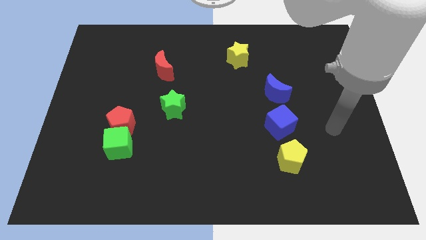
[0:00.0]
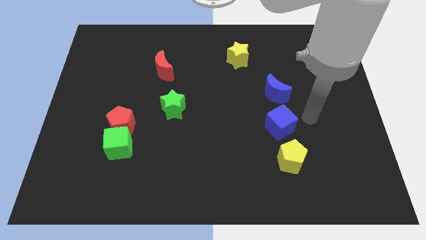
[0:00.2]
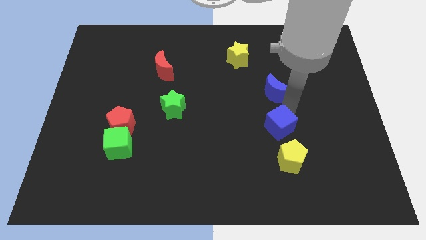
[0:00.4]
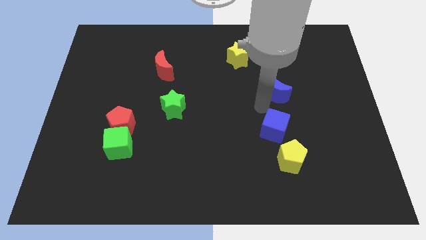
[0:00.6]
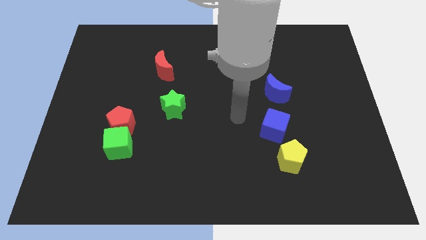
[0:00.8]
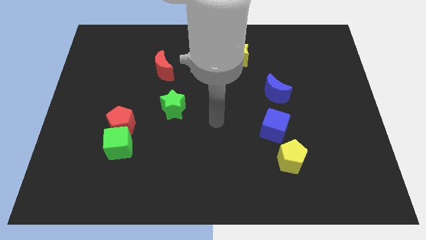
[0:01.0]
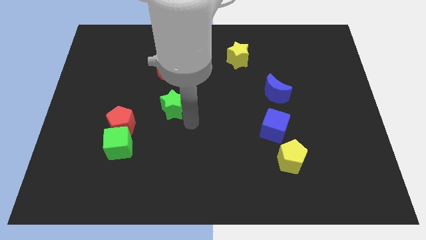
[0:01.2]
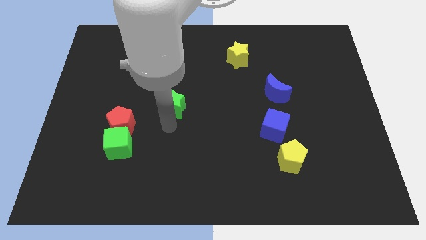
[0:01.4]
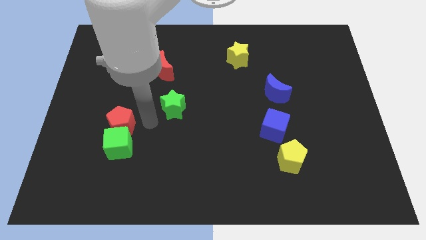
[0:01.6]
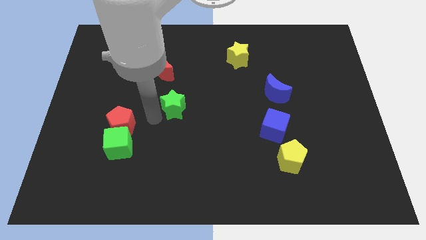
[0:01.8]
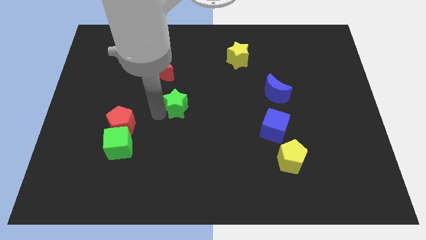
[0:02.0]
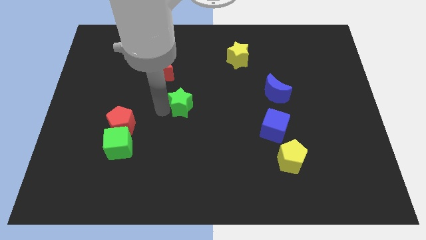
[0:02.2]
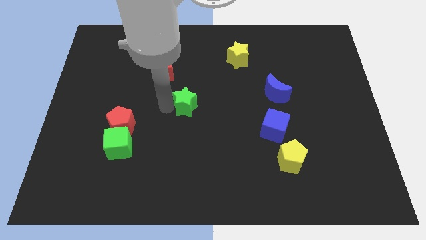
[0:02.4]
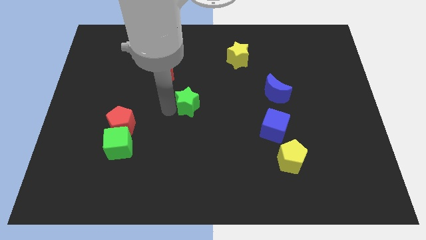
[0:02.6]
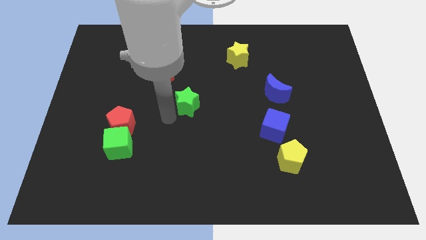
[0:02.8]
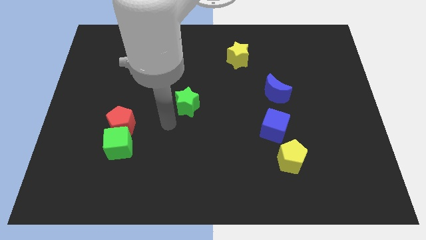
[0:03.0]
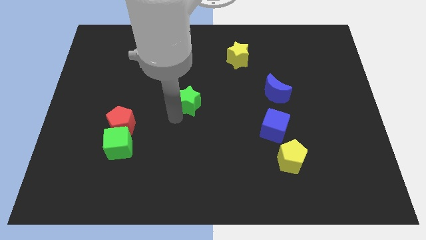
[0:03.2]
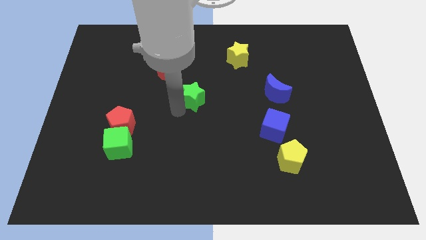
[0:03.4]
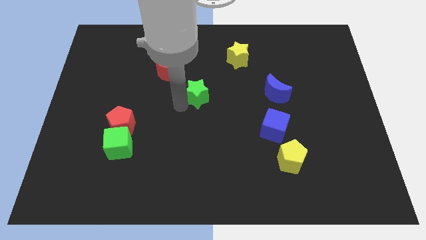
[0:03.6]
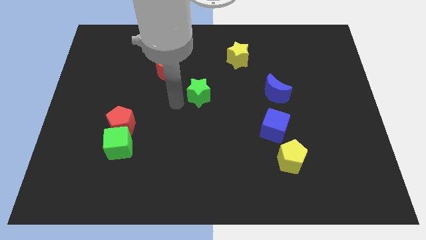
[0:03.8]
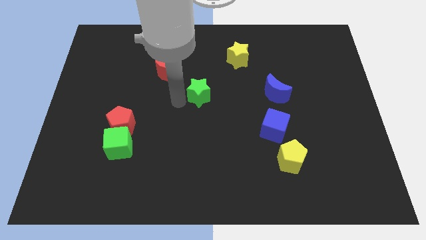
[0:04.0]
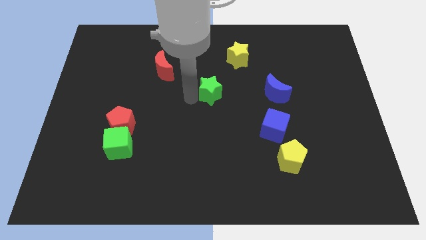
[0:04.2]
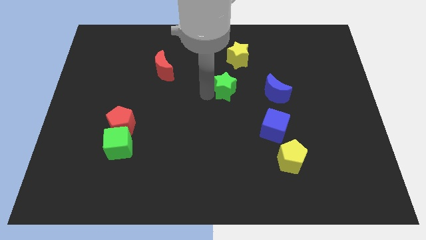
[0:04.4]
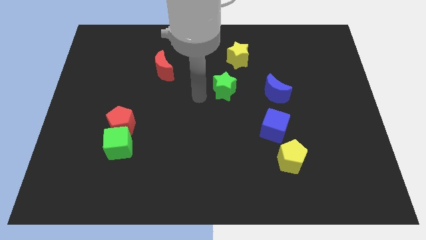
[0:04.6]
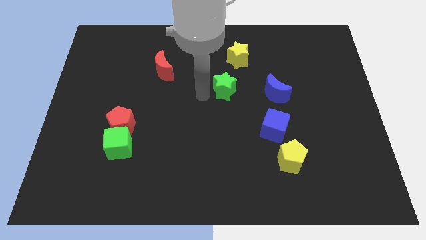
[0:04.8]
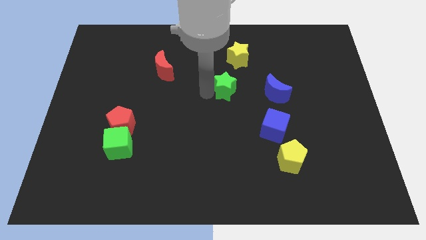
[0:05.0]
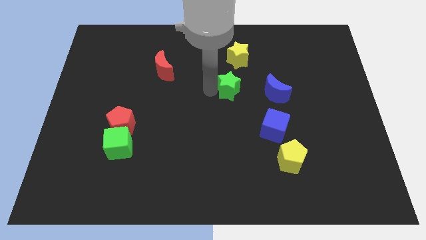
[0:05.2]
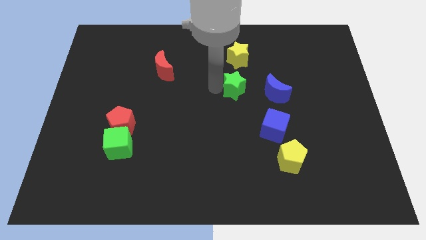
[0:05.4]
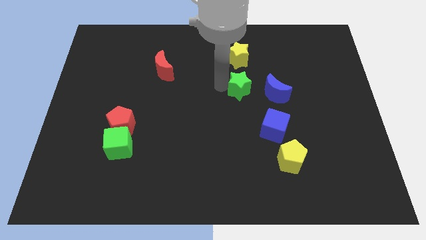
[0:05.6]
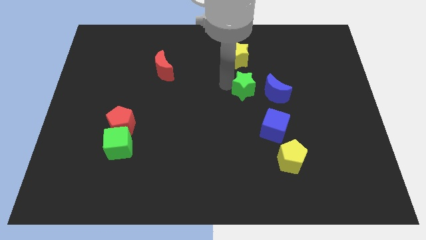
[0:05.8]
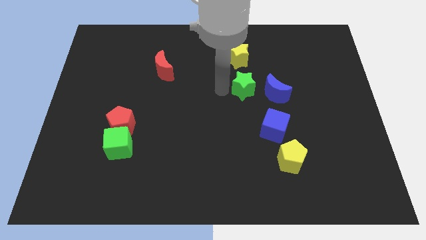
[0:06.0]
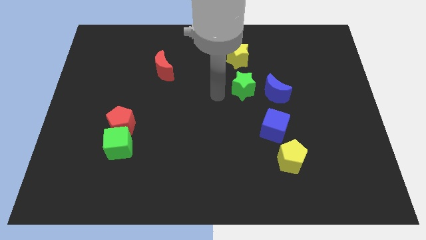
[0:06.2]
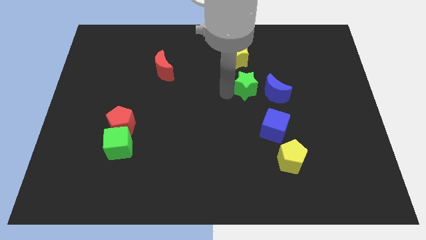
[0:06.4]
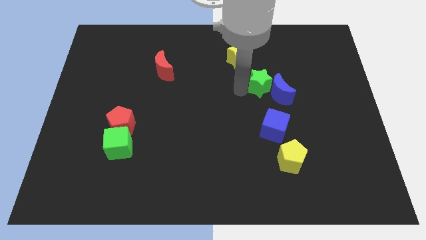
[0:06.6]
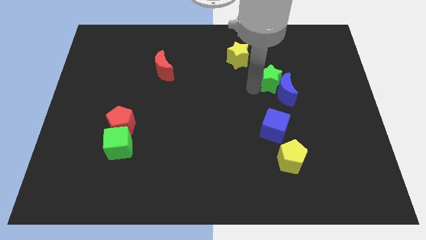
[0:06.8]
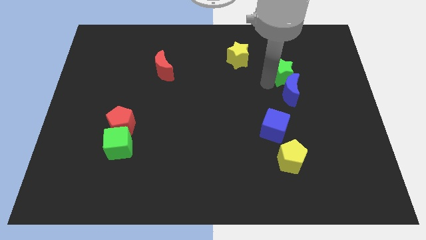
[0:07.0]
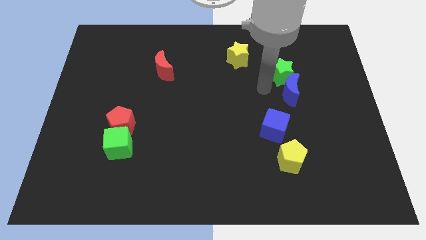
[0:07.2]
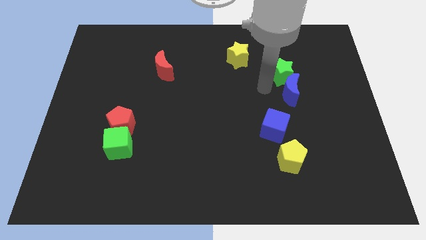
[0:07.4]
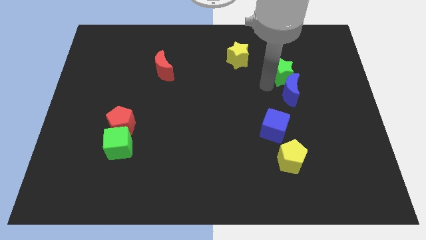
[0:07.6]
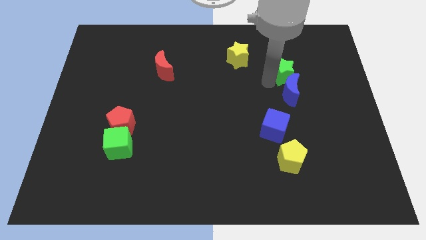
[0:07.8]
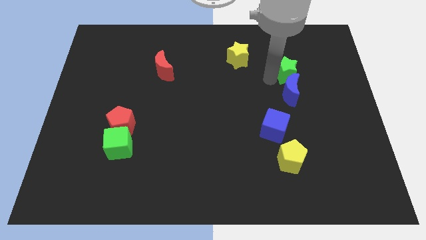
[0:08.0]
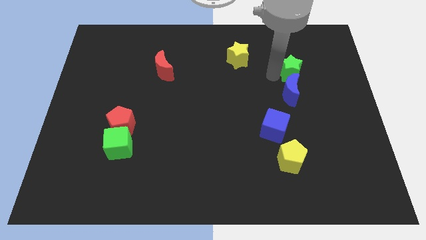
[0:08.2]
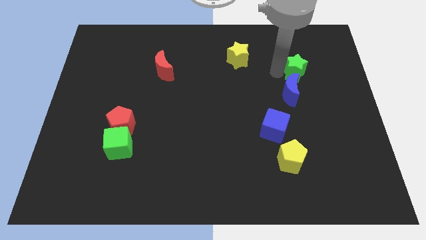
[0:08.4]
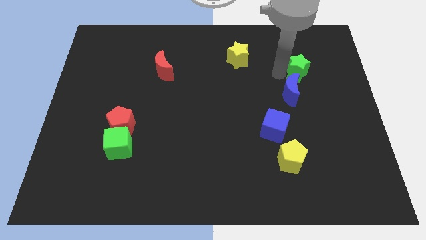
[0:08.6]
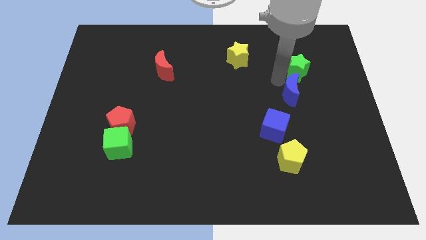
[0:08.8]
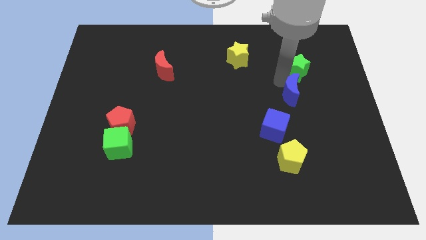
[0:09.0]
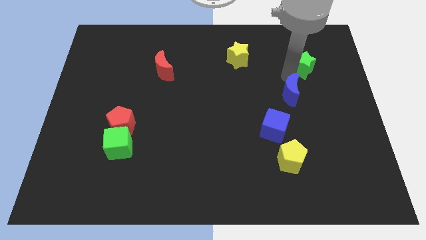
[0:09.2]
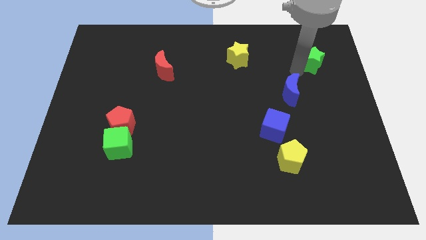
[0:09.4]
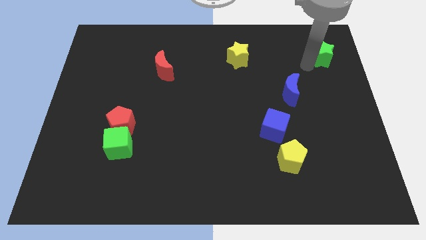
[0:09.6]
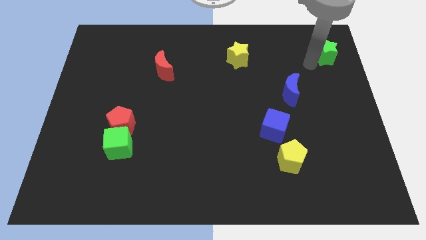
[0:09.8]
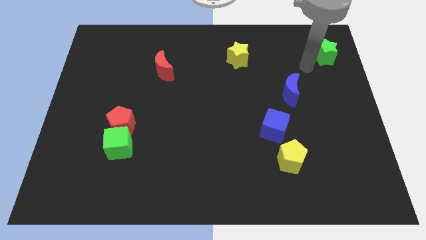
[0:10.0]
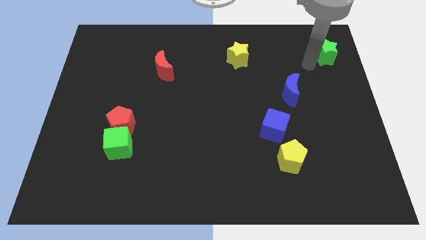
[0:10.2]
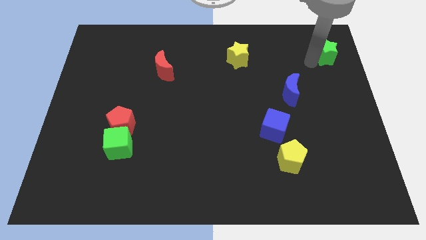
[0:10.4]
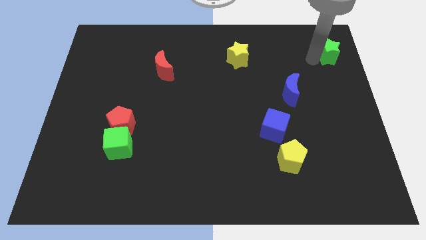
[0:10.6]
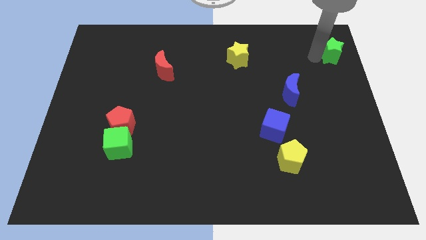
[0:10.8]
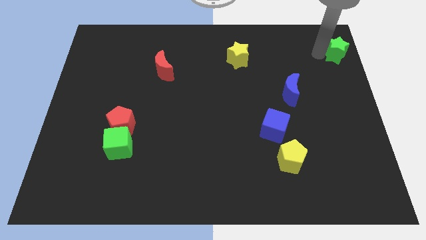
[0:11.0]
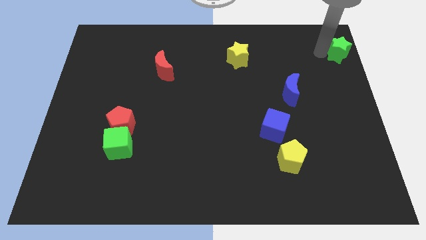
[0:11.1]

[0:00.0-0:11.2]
push the green star to the top right of the board

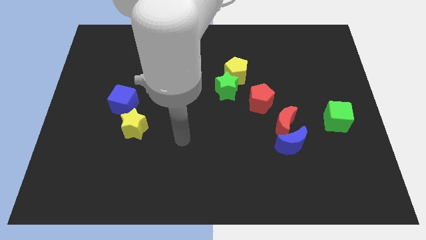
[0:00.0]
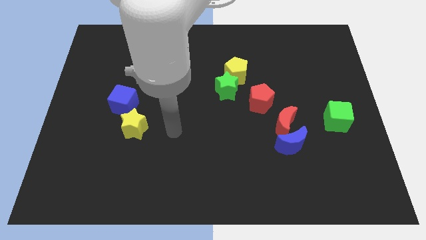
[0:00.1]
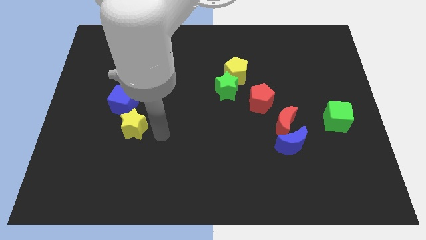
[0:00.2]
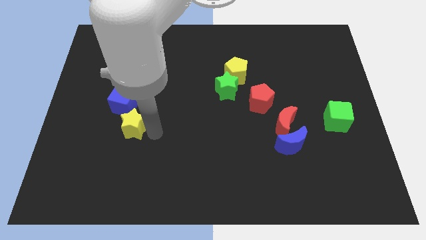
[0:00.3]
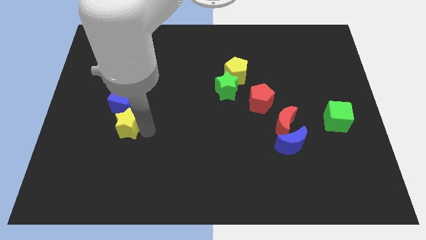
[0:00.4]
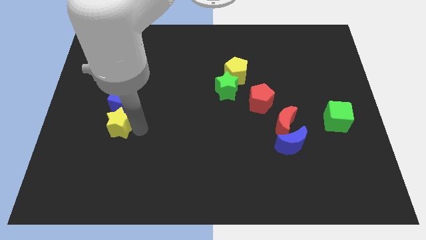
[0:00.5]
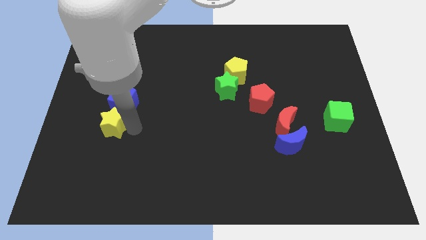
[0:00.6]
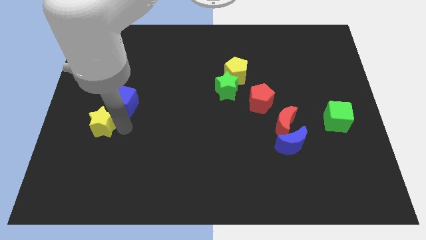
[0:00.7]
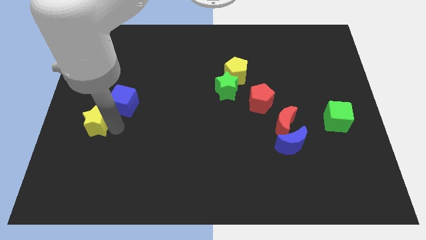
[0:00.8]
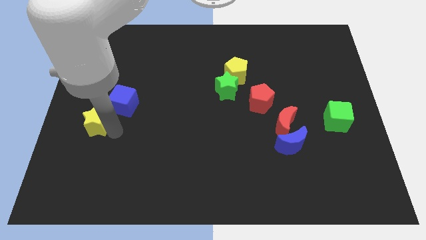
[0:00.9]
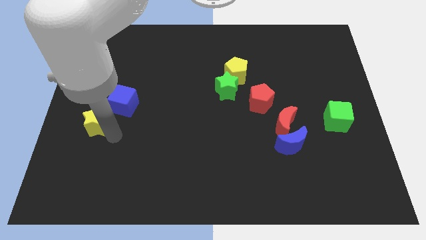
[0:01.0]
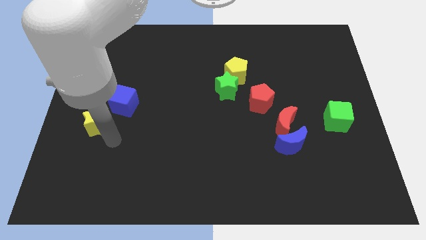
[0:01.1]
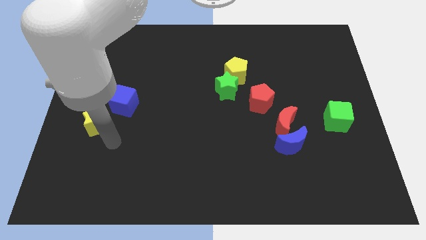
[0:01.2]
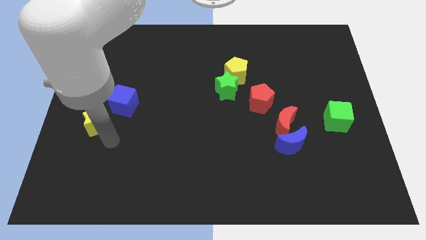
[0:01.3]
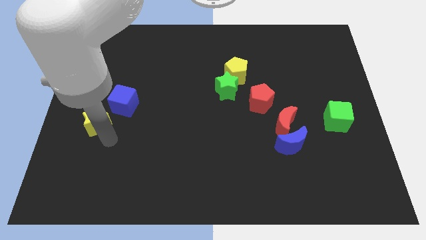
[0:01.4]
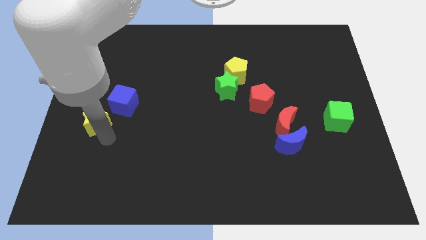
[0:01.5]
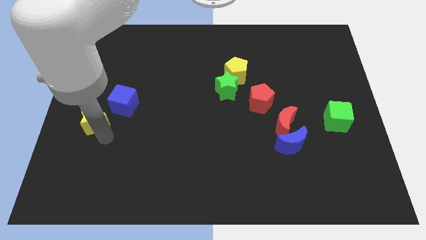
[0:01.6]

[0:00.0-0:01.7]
push the yellow star to the center left
